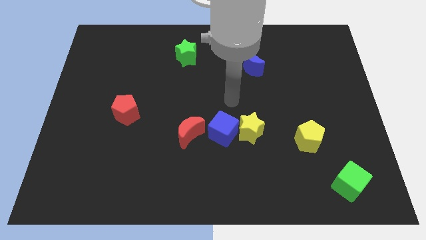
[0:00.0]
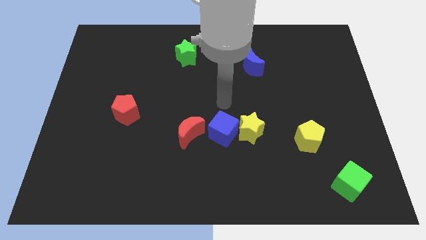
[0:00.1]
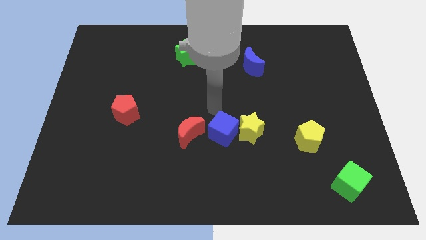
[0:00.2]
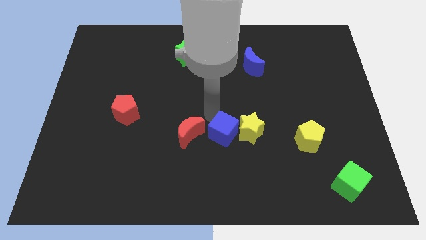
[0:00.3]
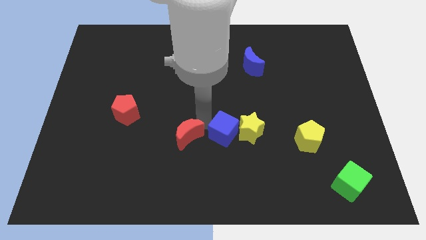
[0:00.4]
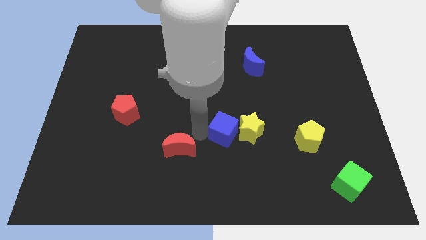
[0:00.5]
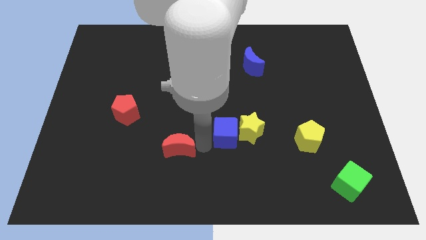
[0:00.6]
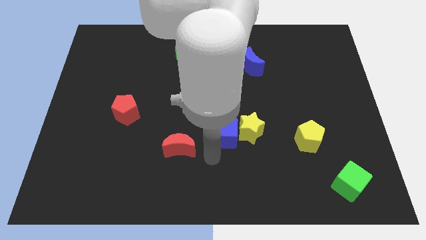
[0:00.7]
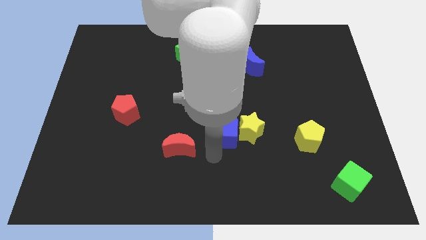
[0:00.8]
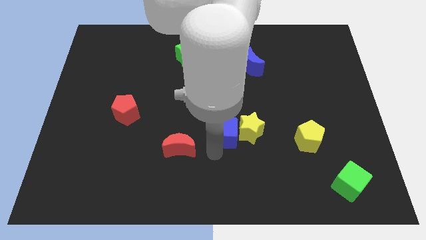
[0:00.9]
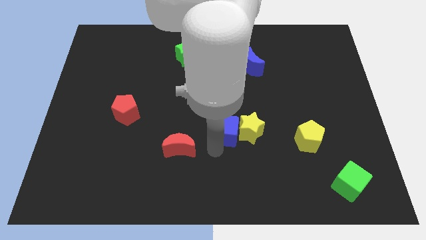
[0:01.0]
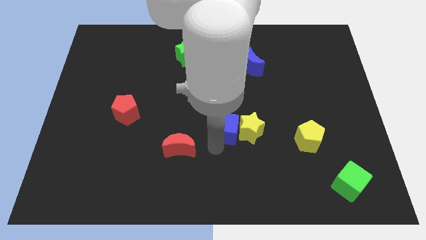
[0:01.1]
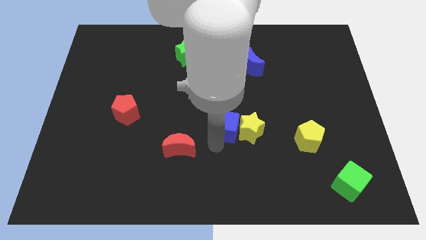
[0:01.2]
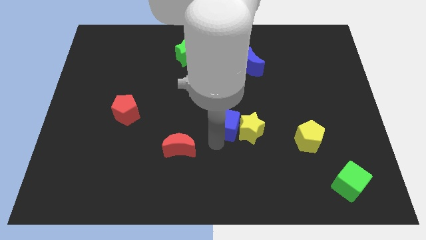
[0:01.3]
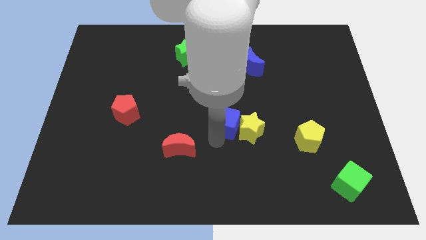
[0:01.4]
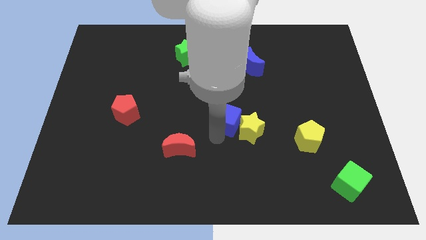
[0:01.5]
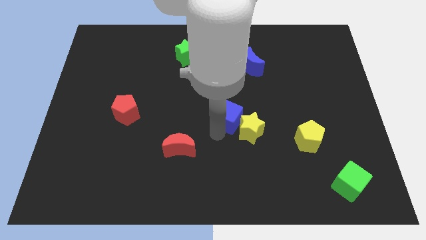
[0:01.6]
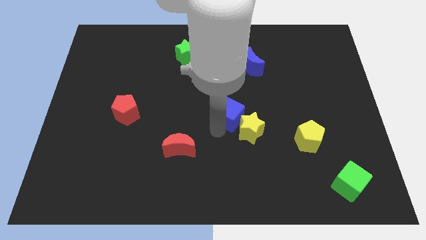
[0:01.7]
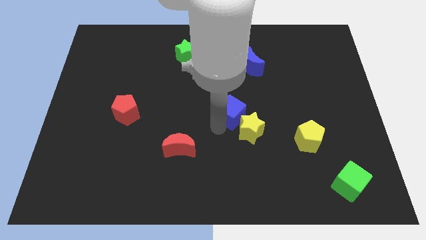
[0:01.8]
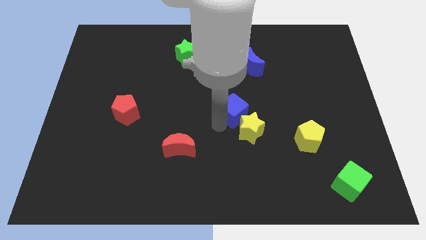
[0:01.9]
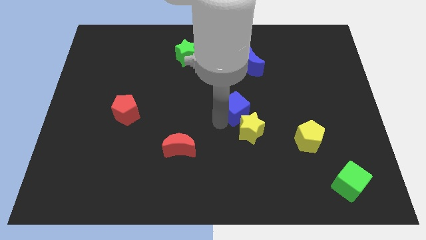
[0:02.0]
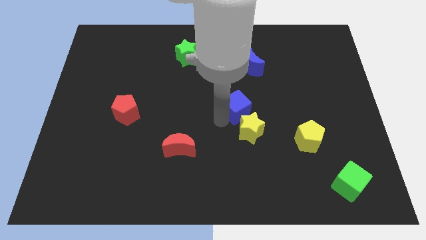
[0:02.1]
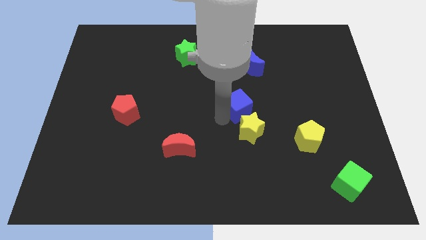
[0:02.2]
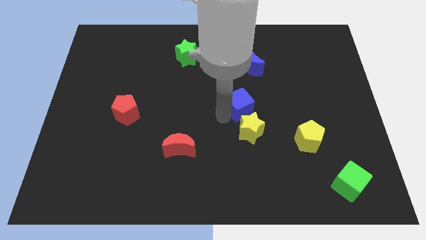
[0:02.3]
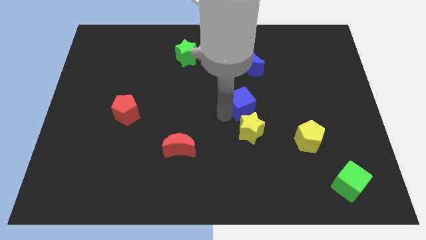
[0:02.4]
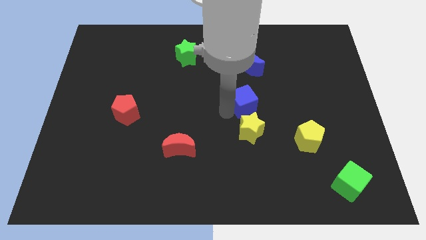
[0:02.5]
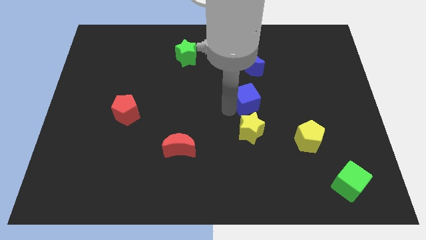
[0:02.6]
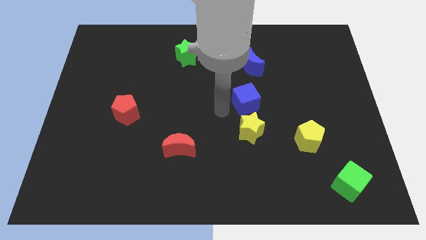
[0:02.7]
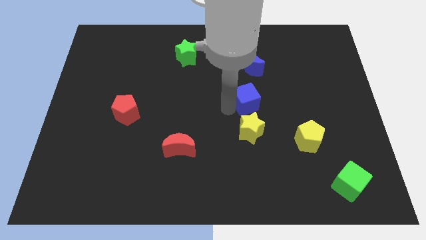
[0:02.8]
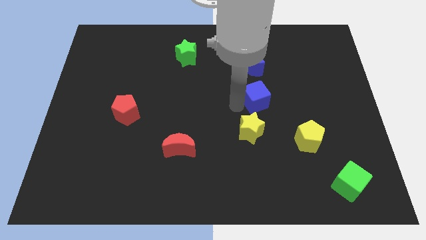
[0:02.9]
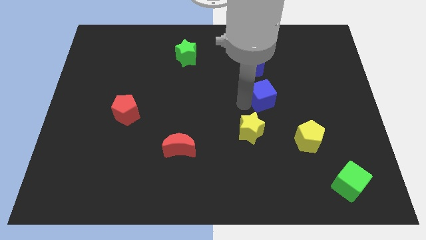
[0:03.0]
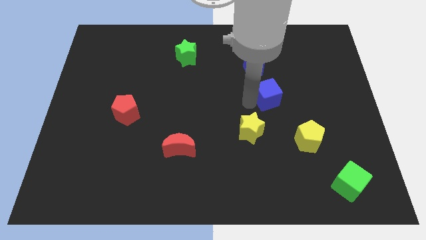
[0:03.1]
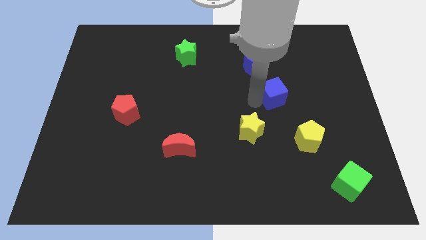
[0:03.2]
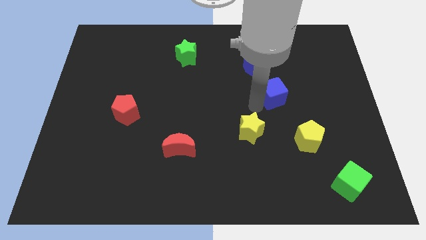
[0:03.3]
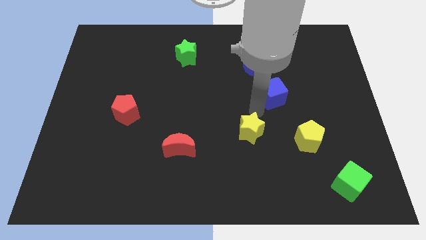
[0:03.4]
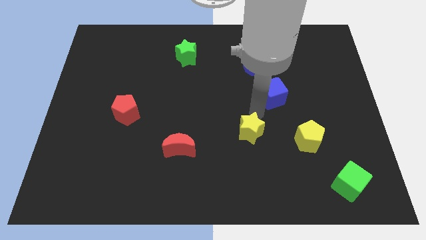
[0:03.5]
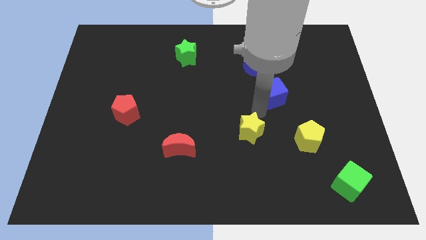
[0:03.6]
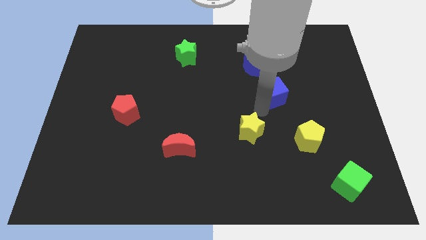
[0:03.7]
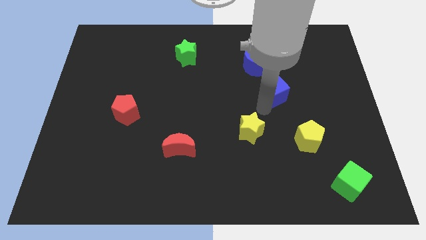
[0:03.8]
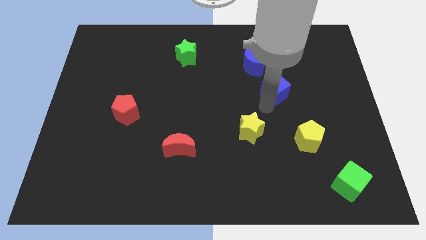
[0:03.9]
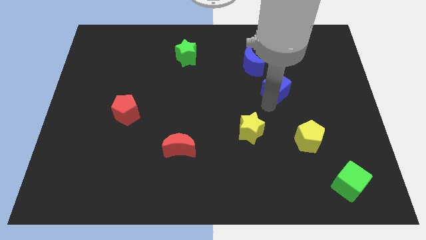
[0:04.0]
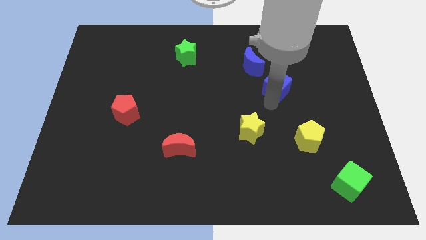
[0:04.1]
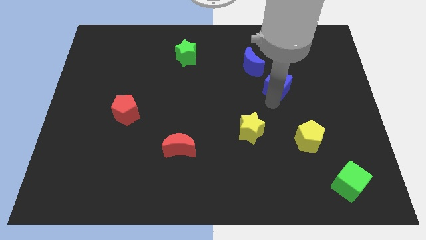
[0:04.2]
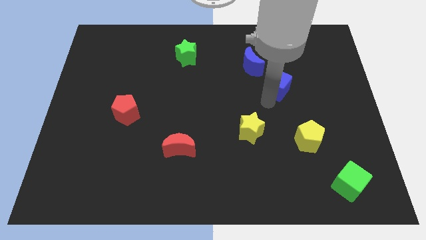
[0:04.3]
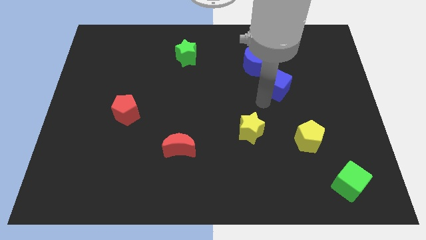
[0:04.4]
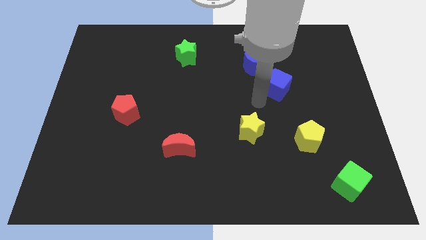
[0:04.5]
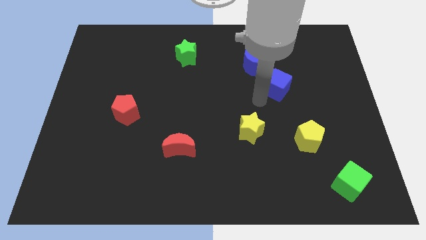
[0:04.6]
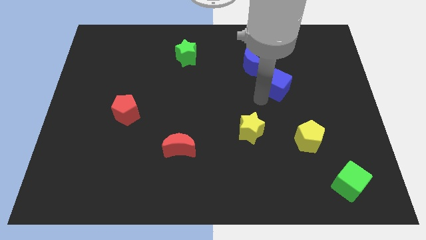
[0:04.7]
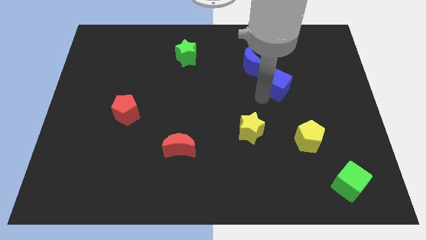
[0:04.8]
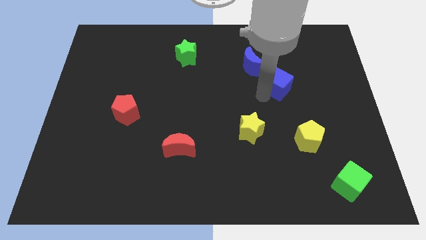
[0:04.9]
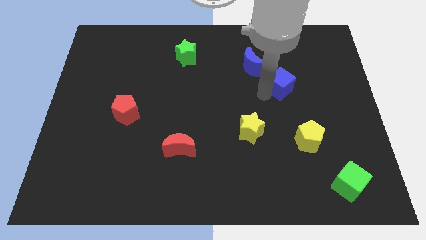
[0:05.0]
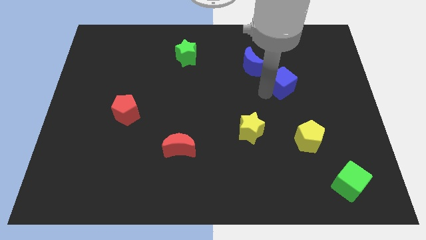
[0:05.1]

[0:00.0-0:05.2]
slide the blue cube diagonally up and right

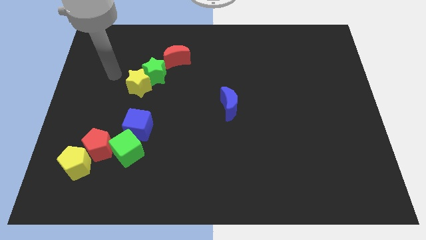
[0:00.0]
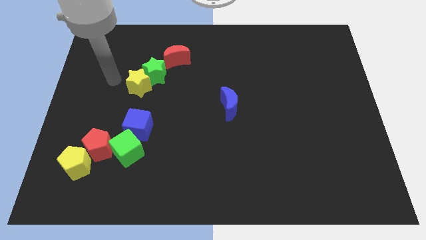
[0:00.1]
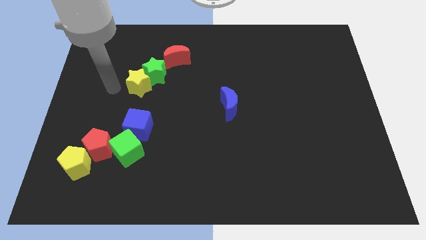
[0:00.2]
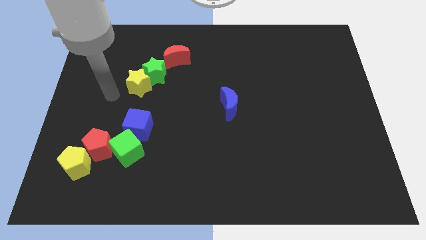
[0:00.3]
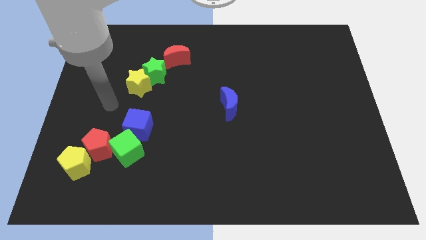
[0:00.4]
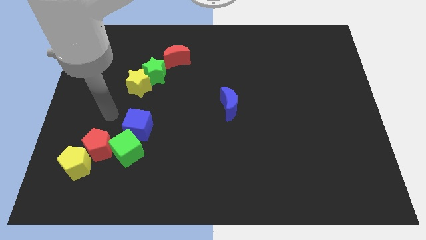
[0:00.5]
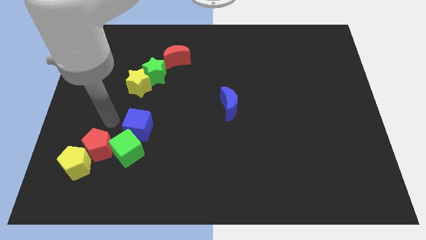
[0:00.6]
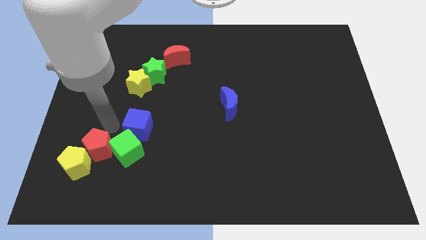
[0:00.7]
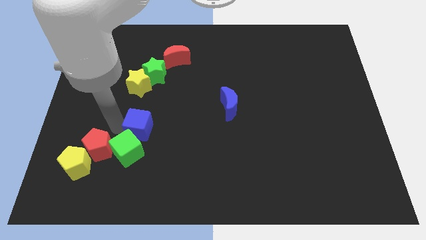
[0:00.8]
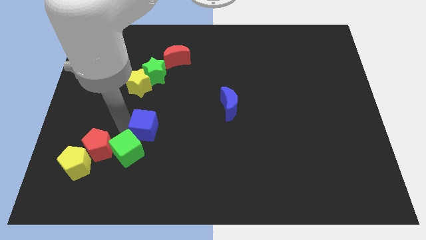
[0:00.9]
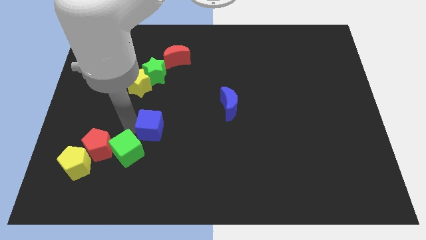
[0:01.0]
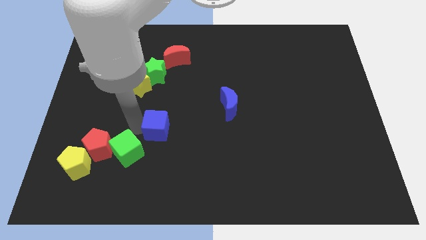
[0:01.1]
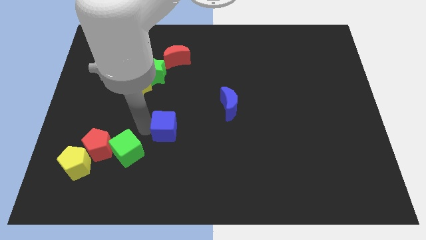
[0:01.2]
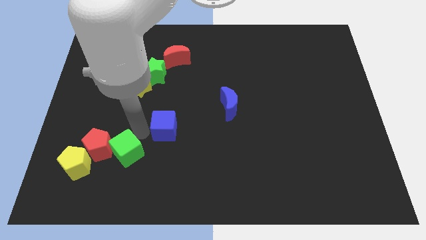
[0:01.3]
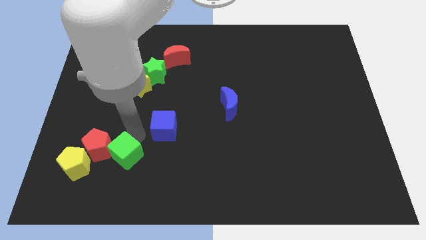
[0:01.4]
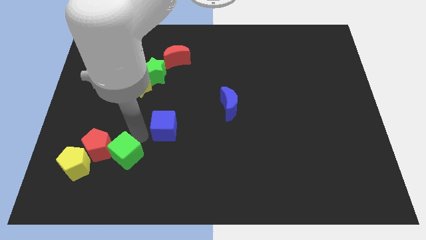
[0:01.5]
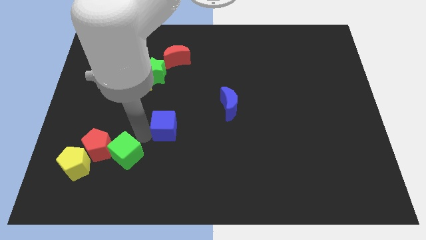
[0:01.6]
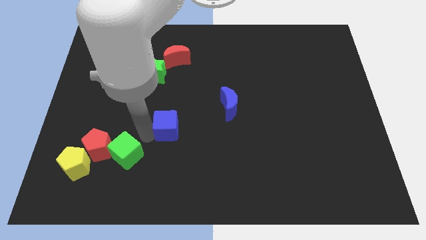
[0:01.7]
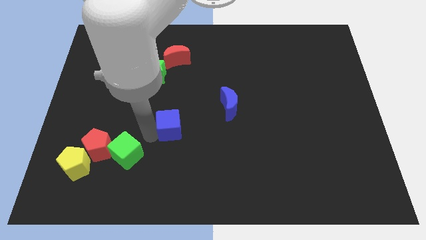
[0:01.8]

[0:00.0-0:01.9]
slightly push the blue cube right

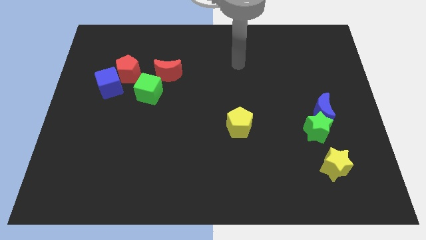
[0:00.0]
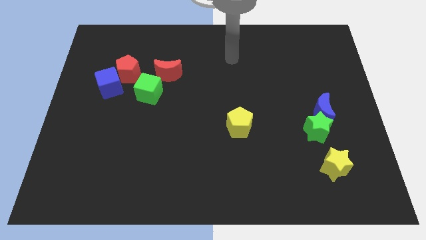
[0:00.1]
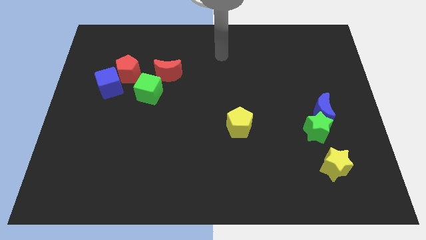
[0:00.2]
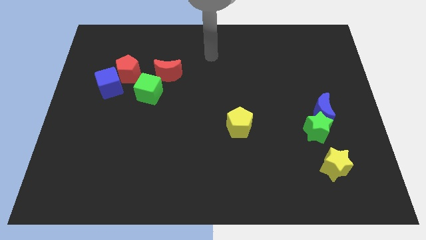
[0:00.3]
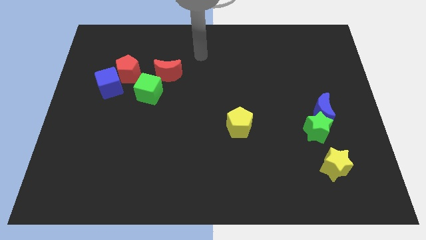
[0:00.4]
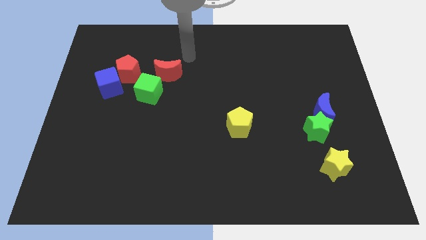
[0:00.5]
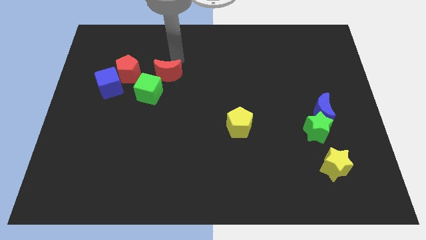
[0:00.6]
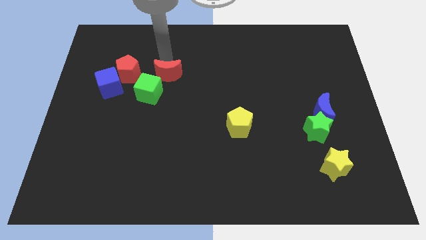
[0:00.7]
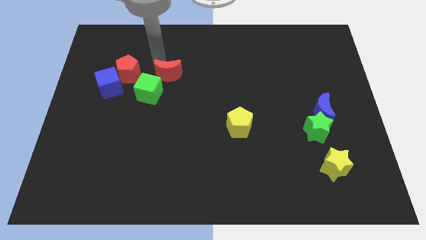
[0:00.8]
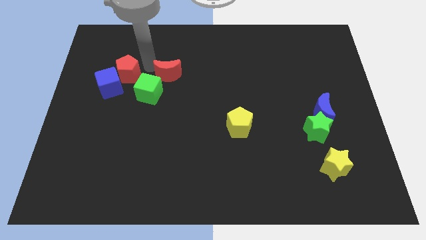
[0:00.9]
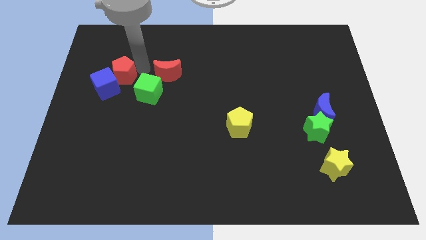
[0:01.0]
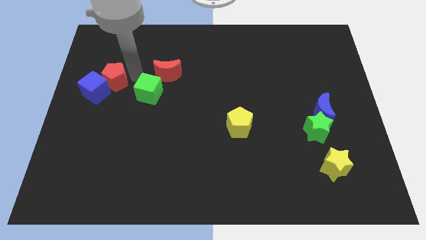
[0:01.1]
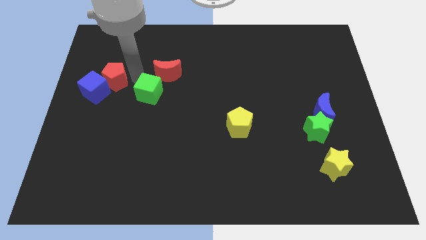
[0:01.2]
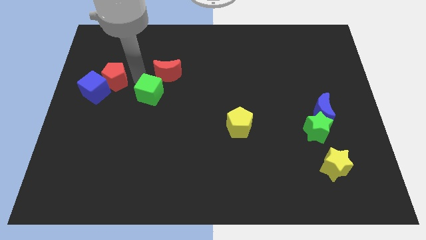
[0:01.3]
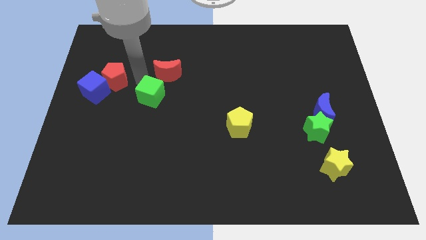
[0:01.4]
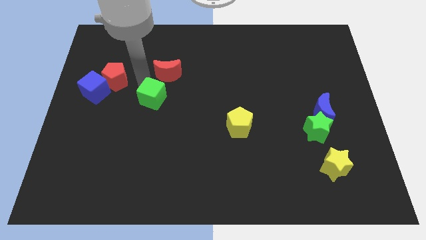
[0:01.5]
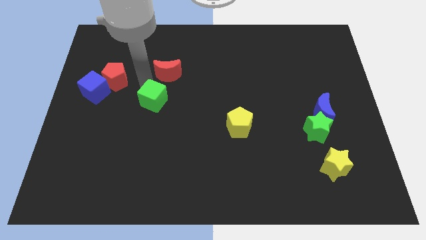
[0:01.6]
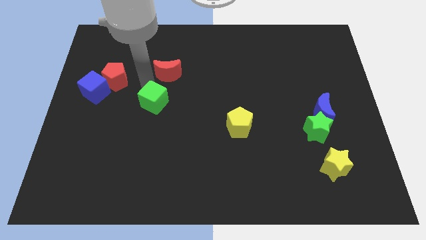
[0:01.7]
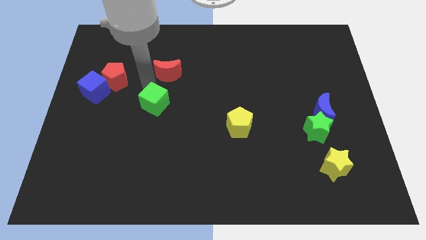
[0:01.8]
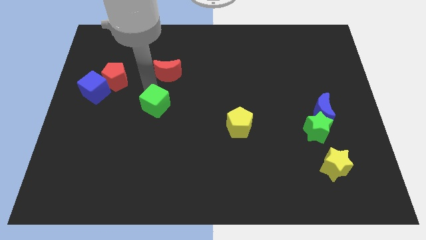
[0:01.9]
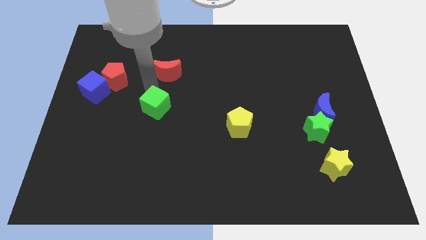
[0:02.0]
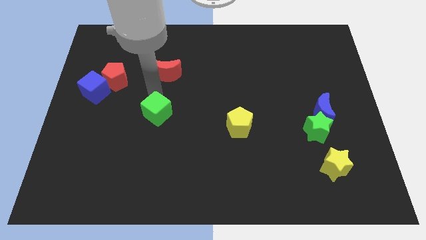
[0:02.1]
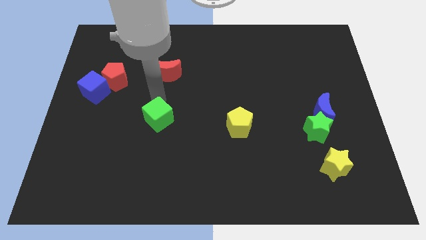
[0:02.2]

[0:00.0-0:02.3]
slide the green cube down and to the right diagonally a bit
